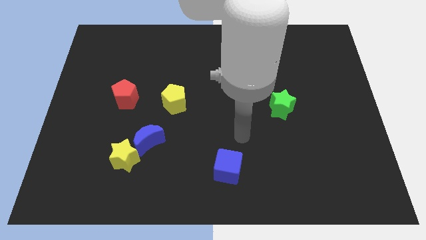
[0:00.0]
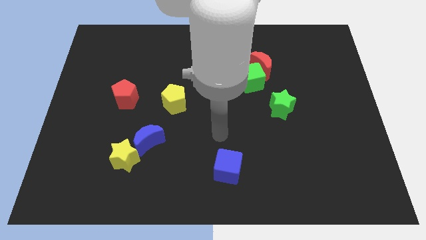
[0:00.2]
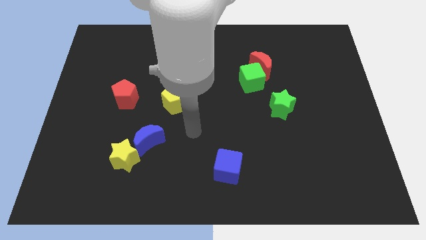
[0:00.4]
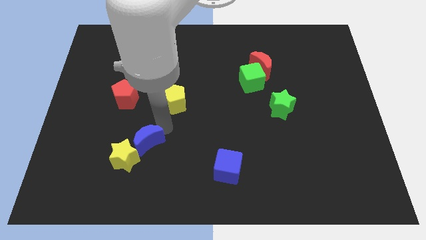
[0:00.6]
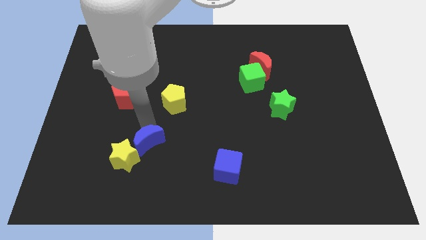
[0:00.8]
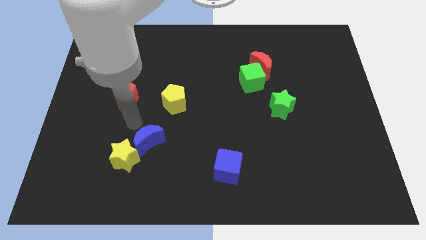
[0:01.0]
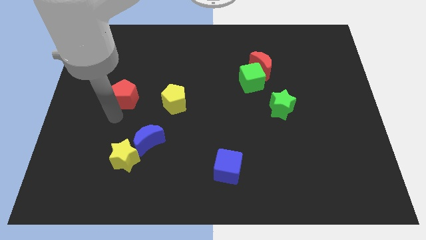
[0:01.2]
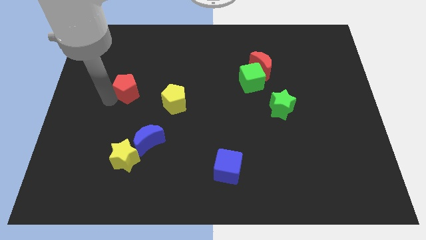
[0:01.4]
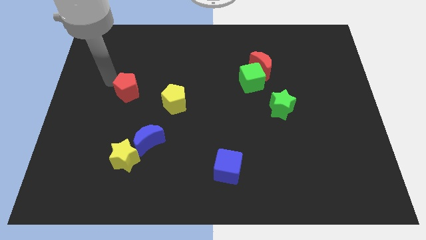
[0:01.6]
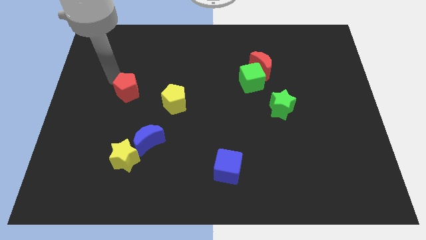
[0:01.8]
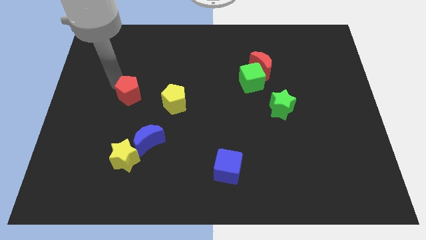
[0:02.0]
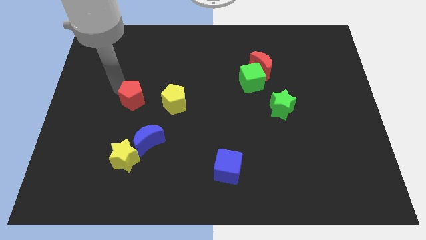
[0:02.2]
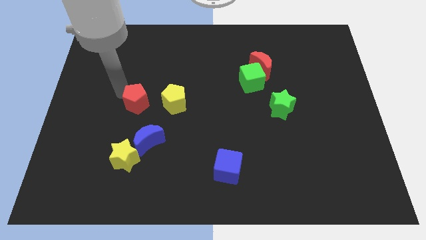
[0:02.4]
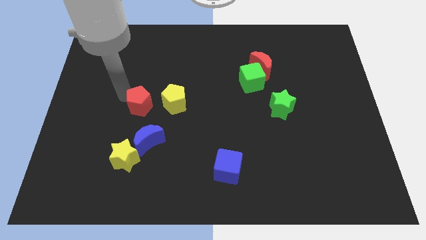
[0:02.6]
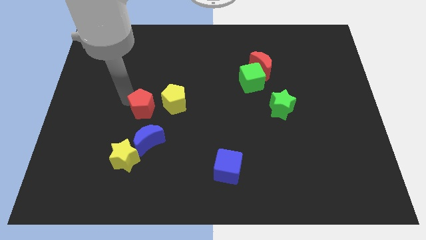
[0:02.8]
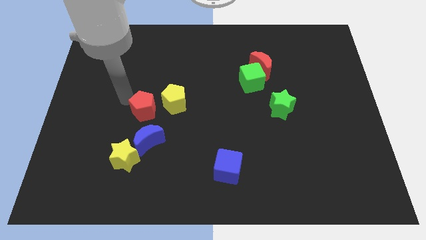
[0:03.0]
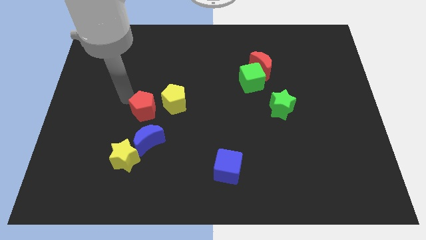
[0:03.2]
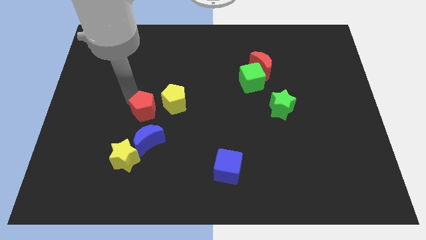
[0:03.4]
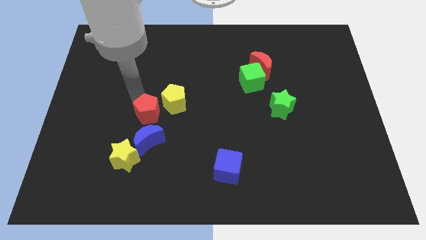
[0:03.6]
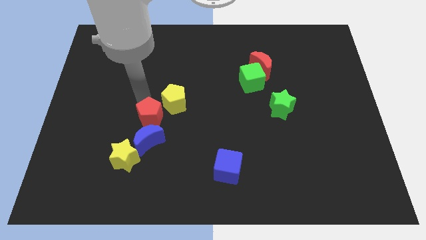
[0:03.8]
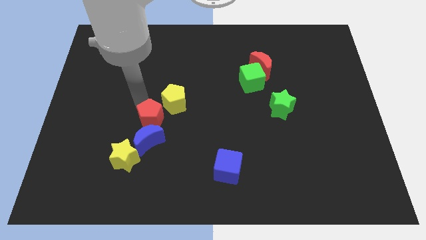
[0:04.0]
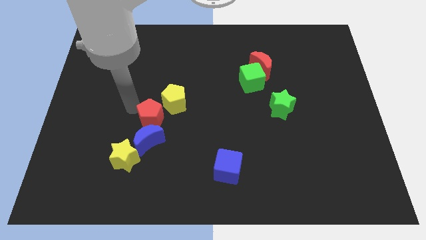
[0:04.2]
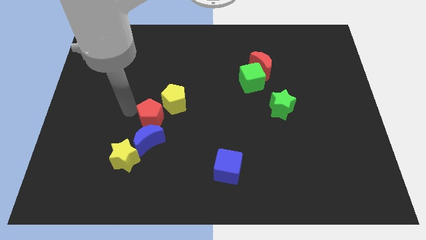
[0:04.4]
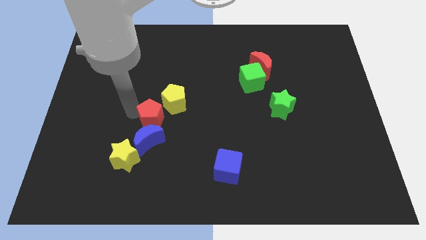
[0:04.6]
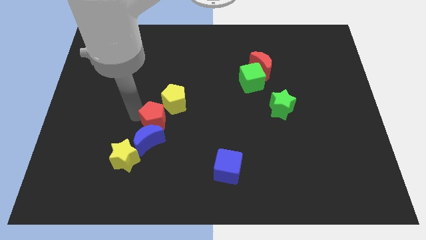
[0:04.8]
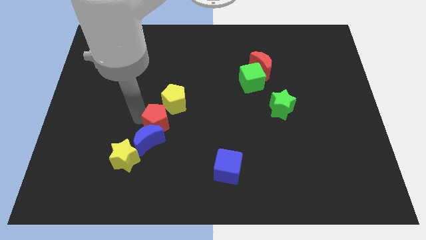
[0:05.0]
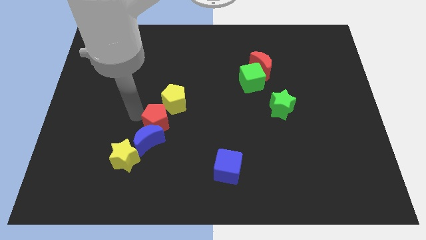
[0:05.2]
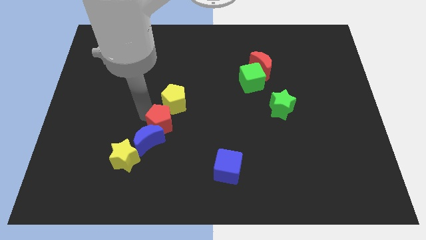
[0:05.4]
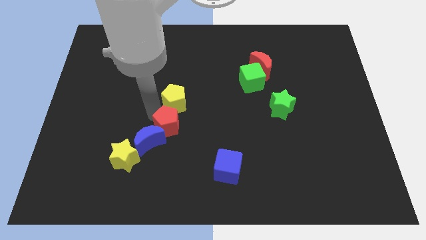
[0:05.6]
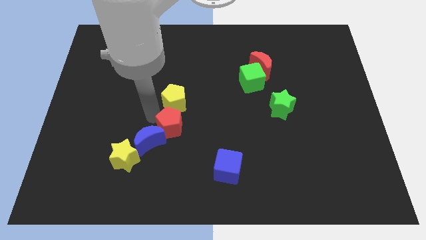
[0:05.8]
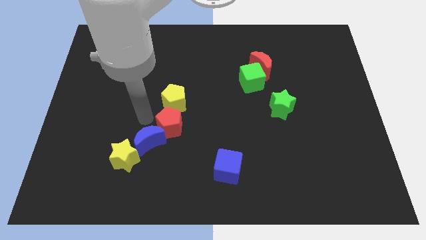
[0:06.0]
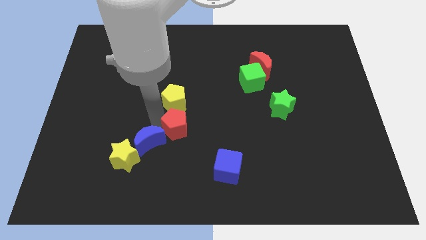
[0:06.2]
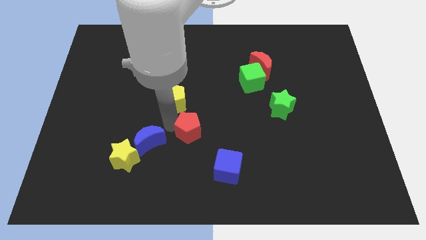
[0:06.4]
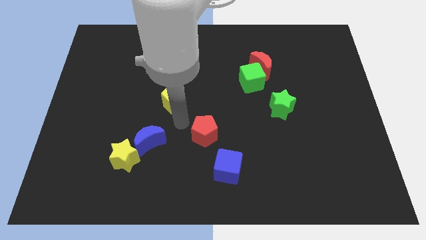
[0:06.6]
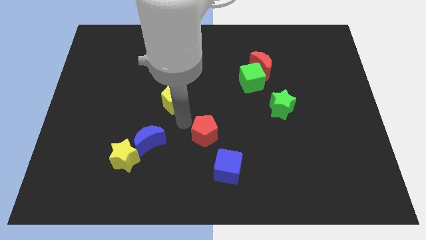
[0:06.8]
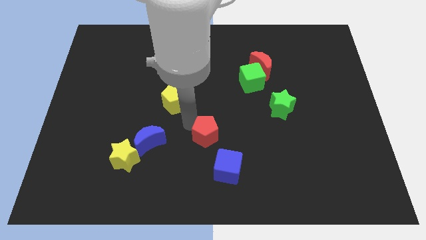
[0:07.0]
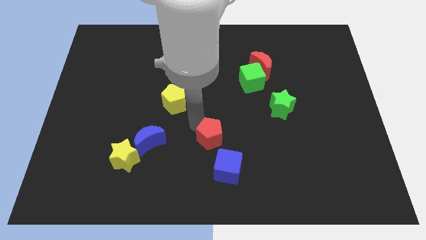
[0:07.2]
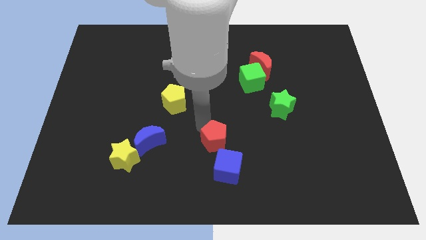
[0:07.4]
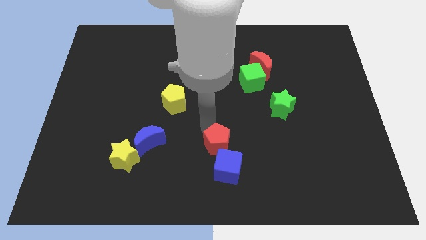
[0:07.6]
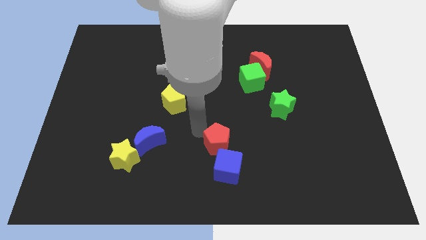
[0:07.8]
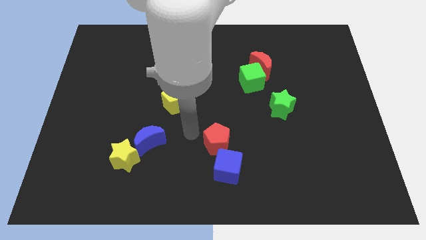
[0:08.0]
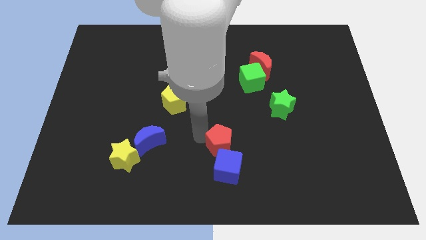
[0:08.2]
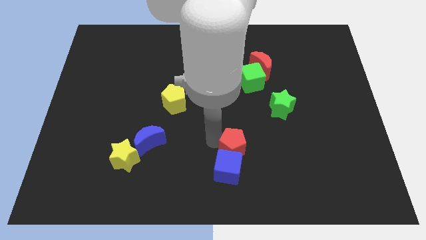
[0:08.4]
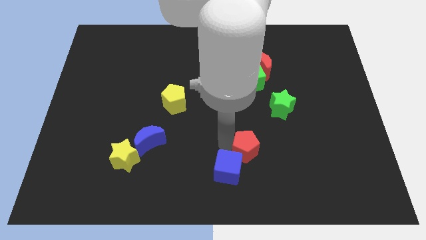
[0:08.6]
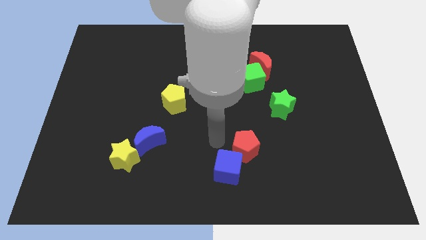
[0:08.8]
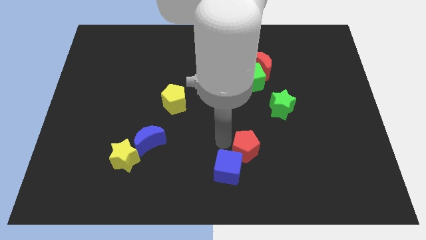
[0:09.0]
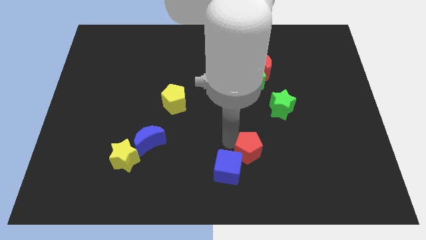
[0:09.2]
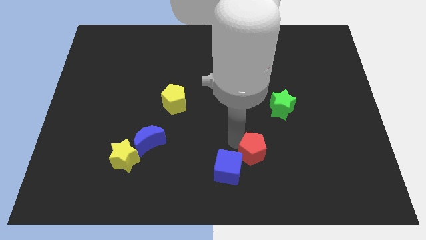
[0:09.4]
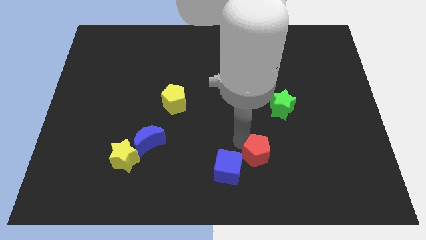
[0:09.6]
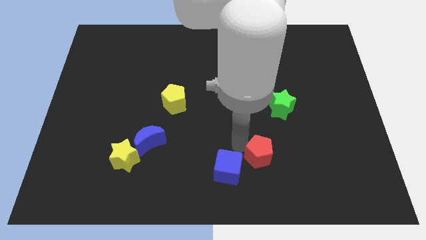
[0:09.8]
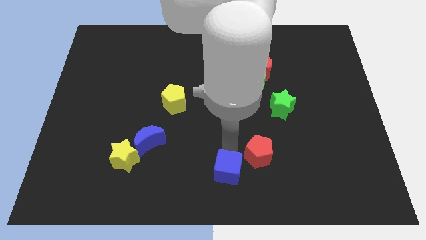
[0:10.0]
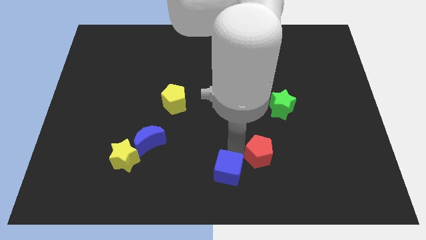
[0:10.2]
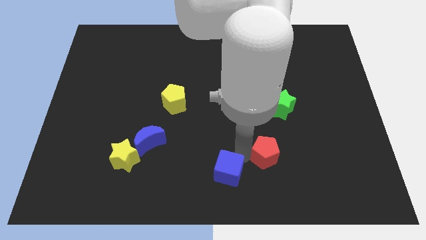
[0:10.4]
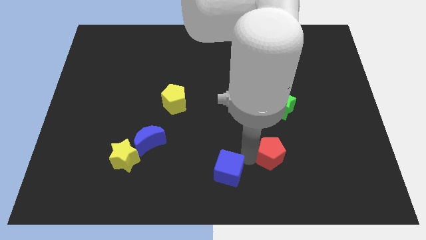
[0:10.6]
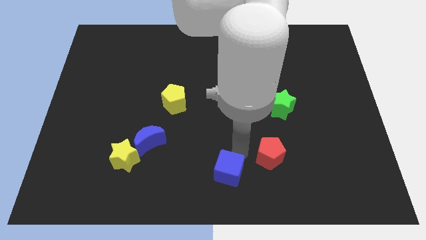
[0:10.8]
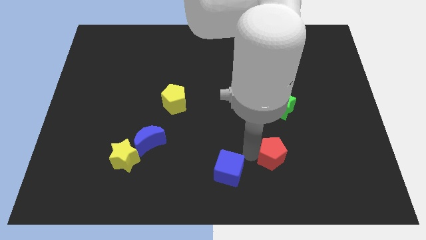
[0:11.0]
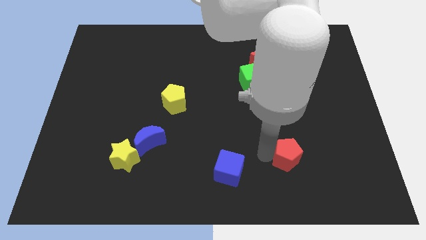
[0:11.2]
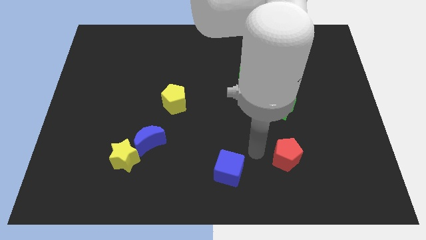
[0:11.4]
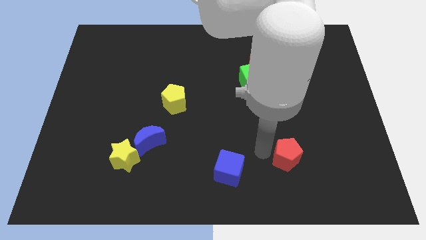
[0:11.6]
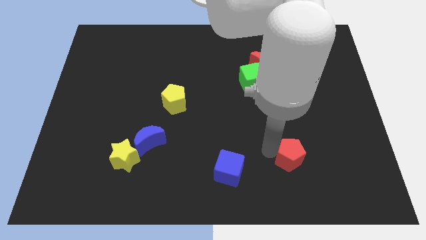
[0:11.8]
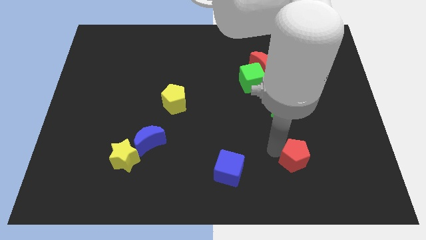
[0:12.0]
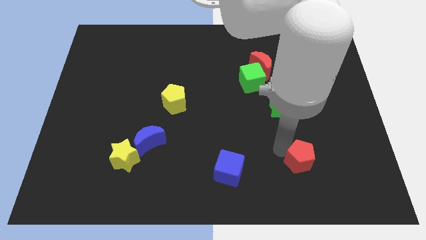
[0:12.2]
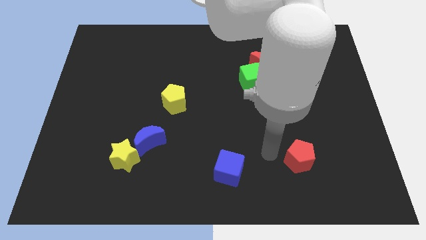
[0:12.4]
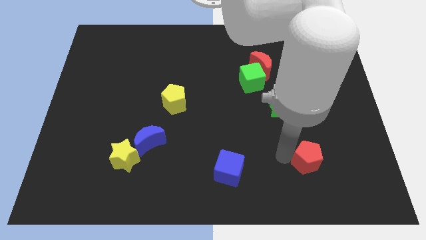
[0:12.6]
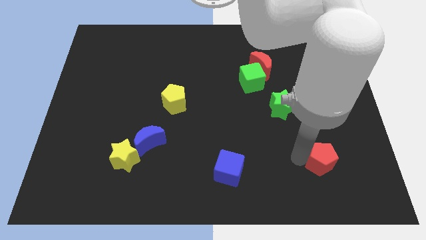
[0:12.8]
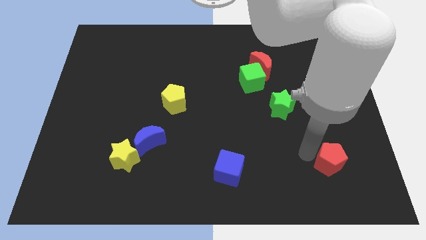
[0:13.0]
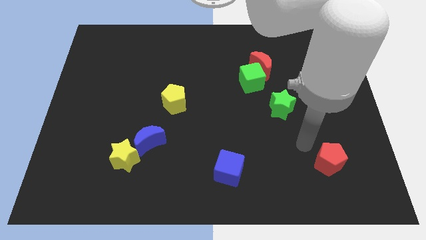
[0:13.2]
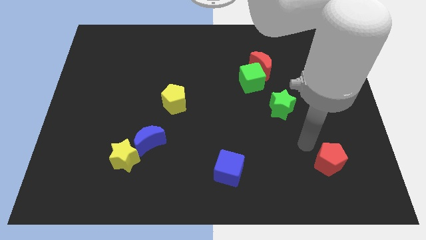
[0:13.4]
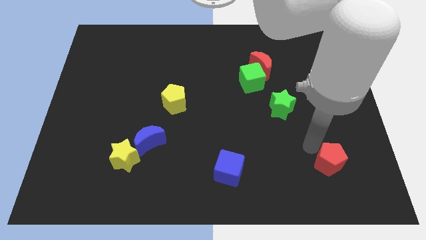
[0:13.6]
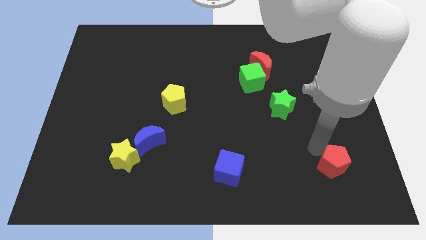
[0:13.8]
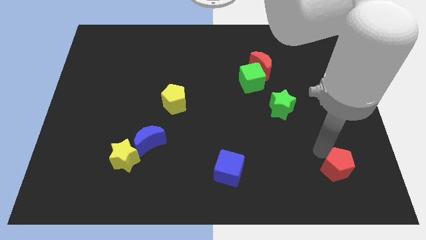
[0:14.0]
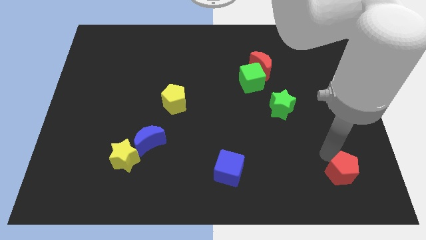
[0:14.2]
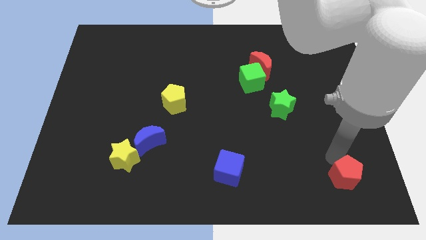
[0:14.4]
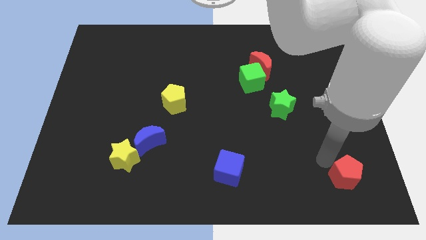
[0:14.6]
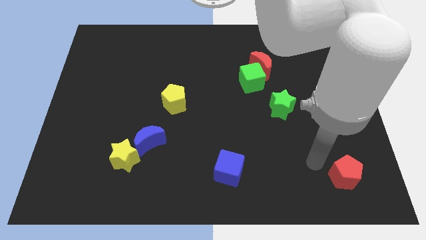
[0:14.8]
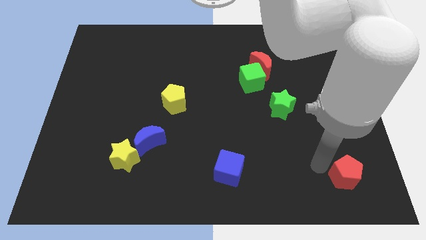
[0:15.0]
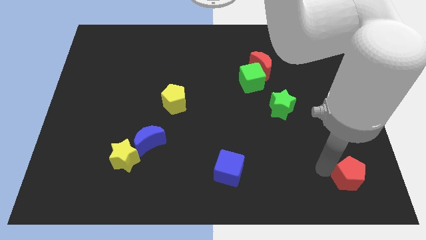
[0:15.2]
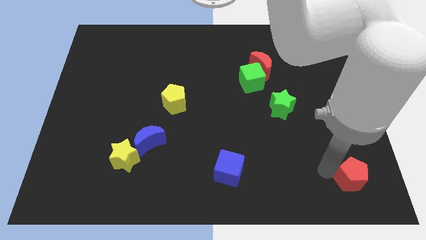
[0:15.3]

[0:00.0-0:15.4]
put the red pentagon to the bottom right corner

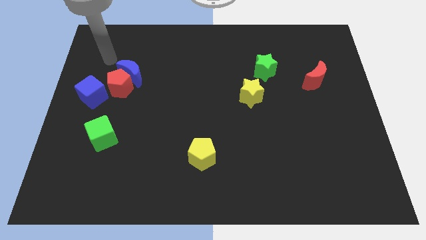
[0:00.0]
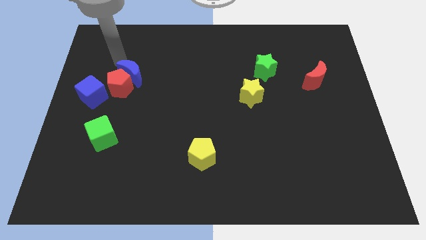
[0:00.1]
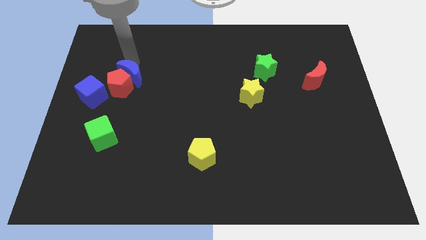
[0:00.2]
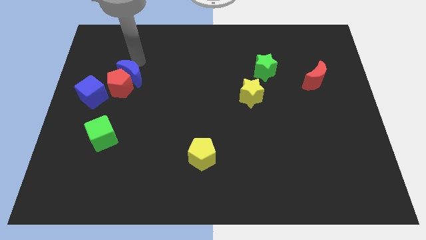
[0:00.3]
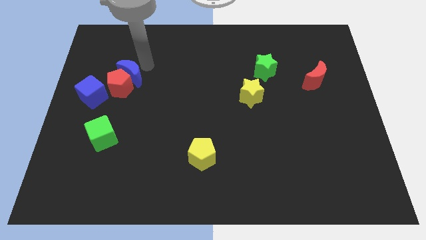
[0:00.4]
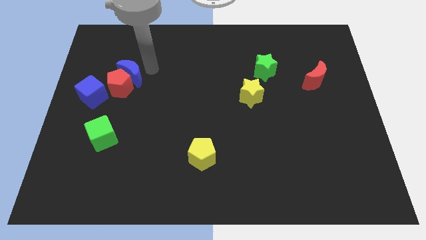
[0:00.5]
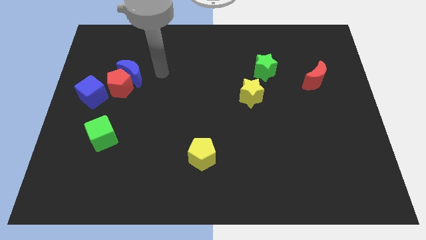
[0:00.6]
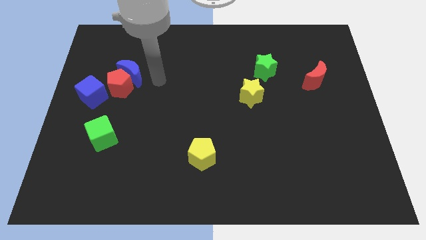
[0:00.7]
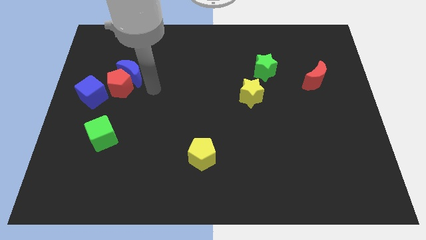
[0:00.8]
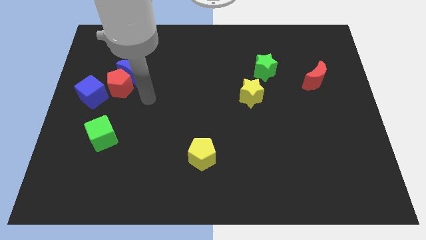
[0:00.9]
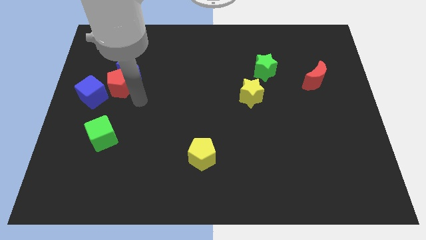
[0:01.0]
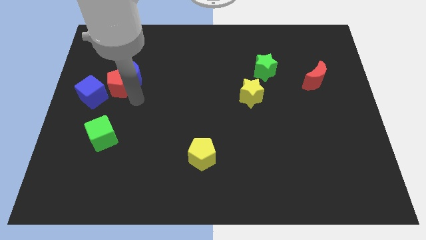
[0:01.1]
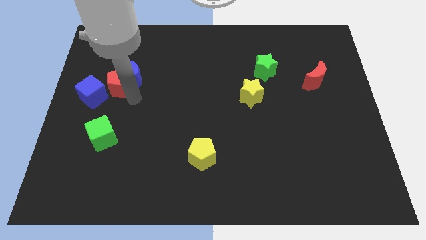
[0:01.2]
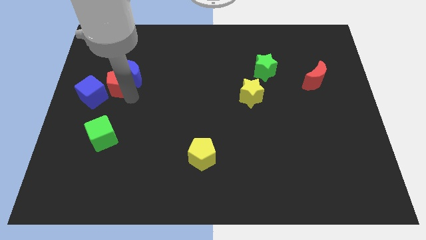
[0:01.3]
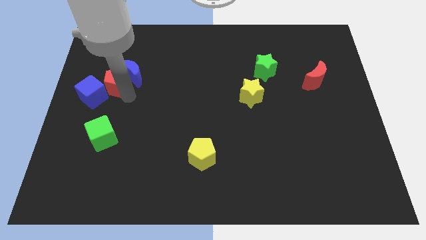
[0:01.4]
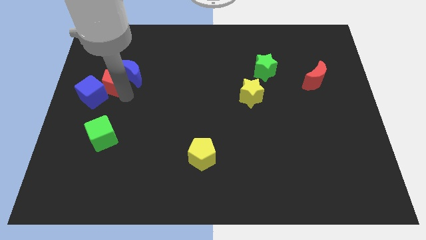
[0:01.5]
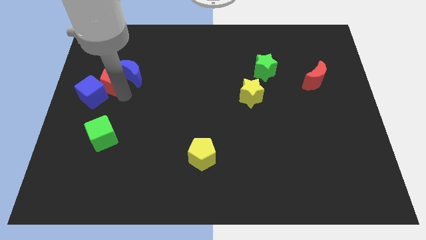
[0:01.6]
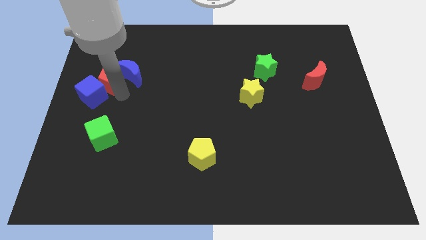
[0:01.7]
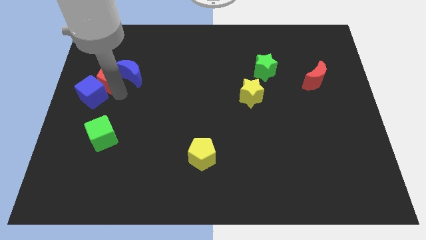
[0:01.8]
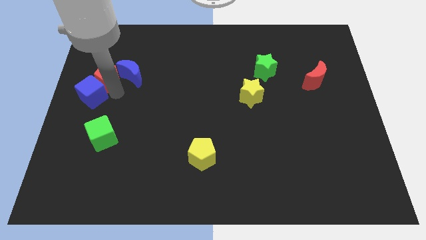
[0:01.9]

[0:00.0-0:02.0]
move the red pentagon to the left side
